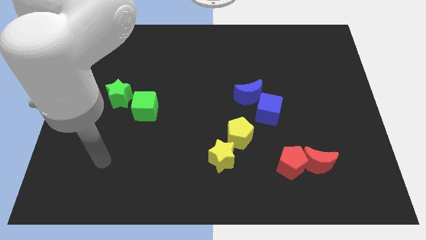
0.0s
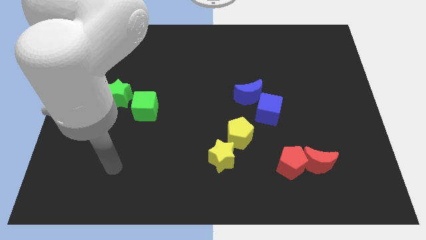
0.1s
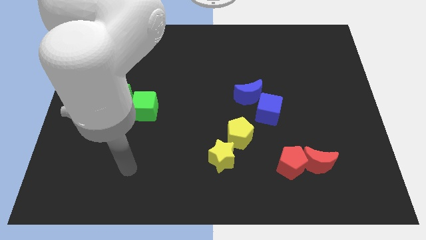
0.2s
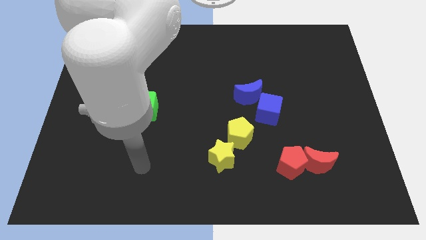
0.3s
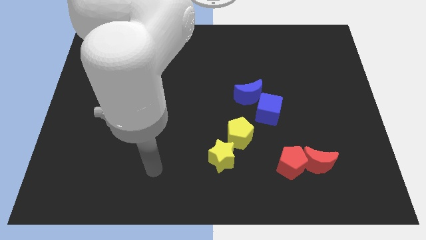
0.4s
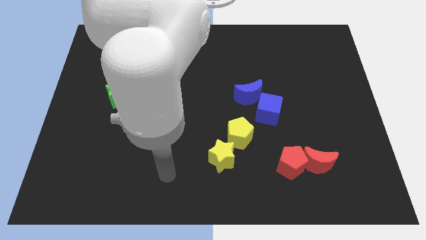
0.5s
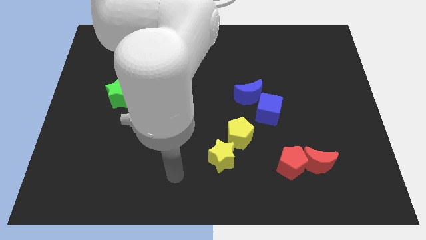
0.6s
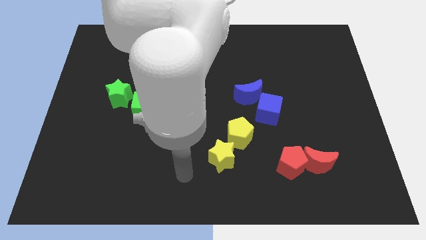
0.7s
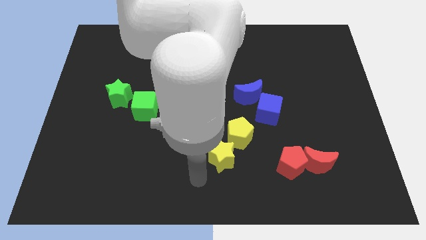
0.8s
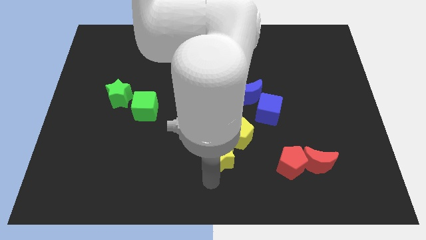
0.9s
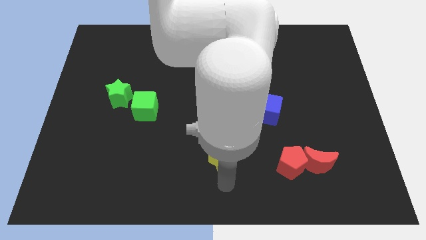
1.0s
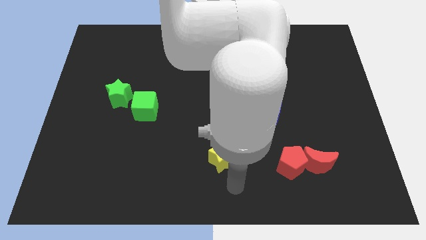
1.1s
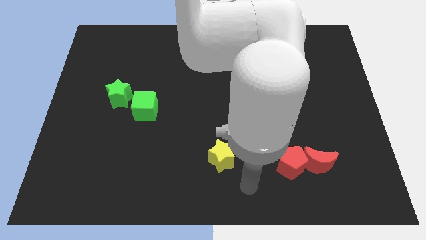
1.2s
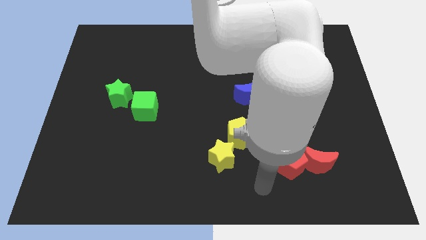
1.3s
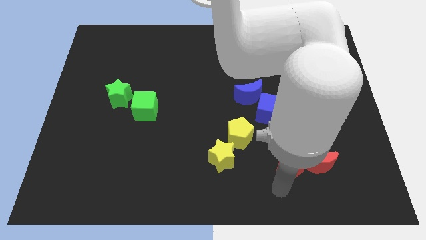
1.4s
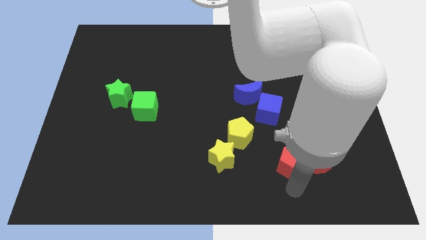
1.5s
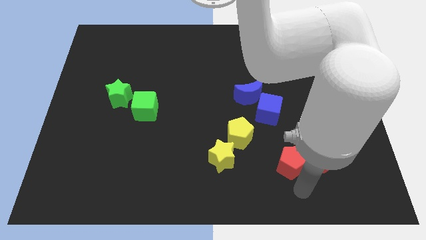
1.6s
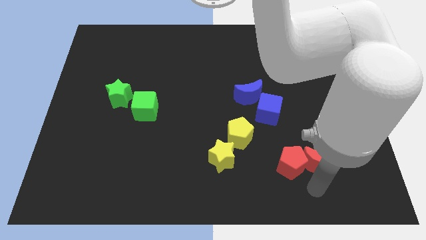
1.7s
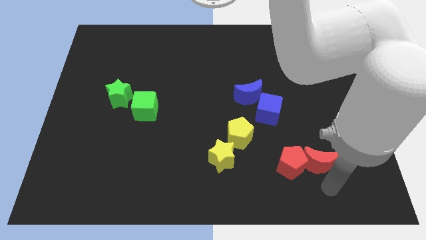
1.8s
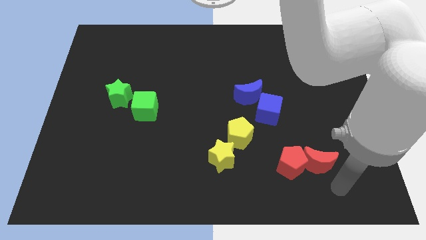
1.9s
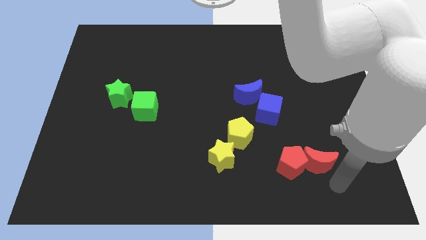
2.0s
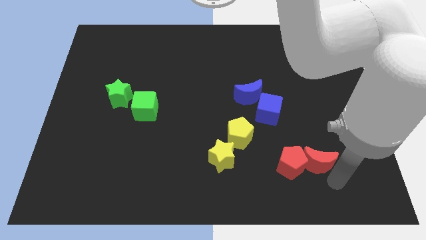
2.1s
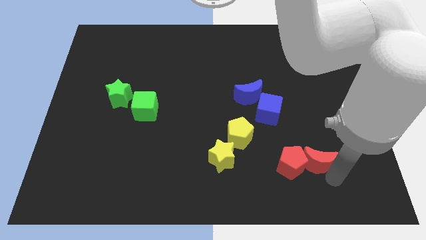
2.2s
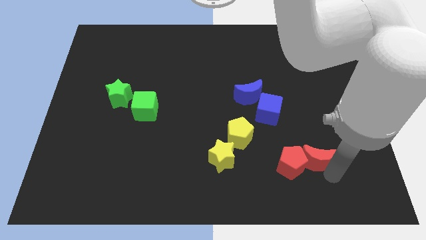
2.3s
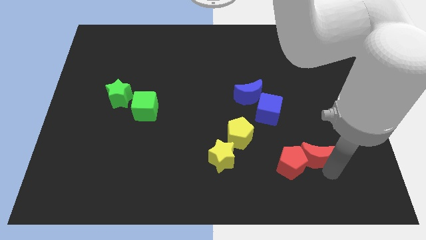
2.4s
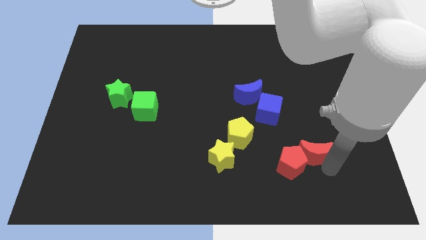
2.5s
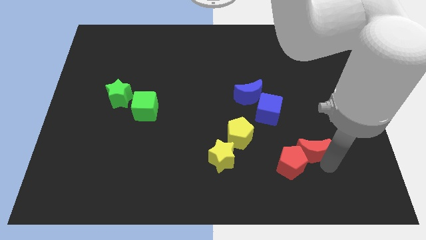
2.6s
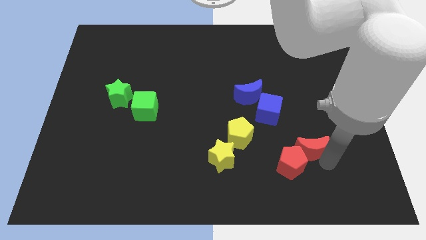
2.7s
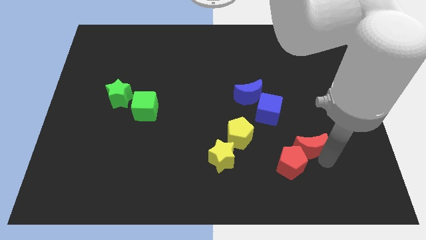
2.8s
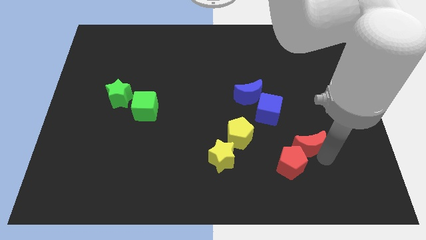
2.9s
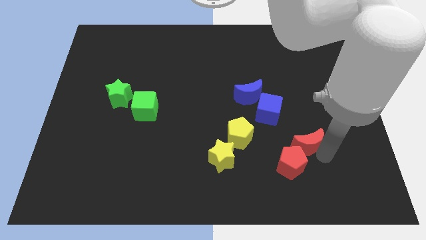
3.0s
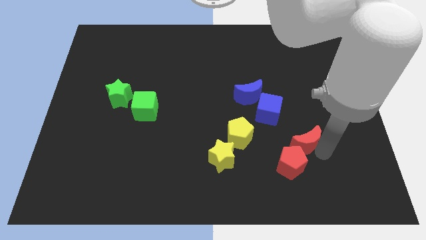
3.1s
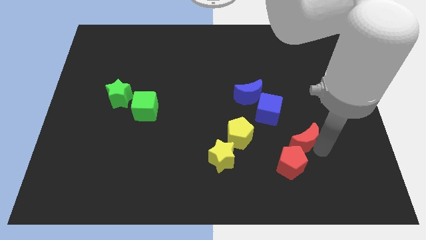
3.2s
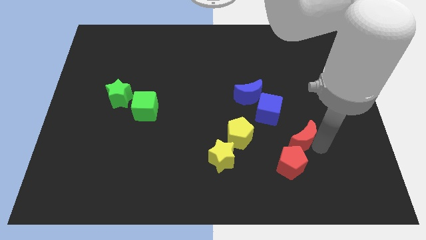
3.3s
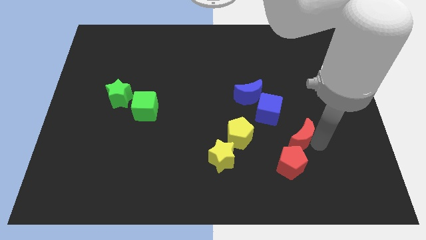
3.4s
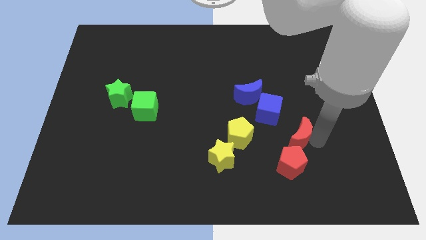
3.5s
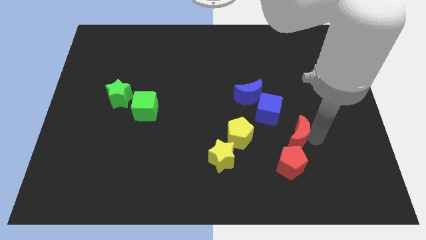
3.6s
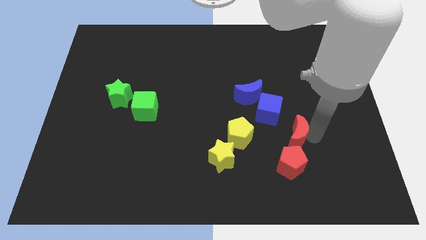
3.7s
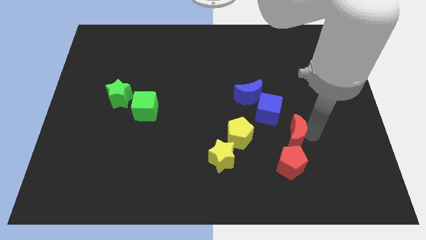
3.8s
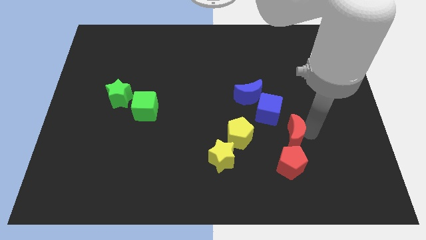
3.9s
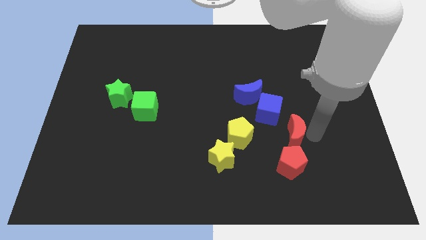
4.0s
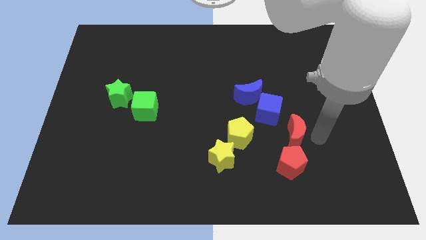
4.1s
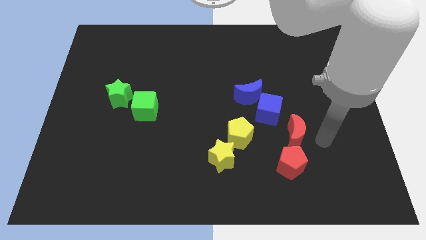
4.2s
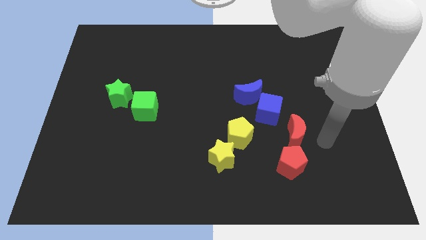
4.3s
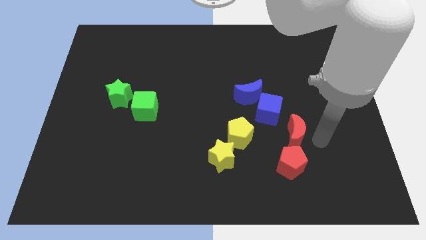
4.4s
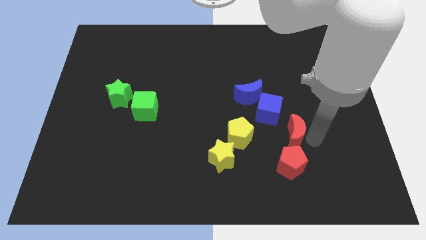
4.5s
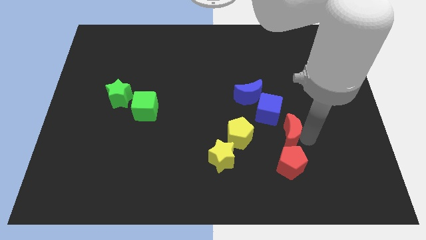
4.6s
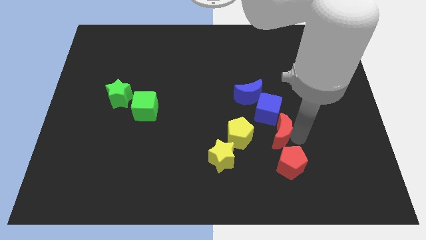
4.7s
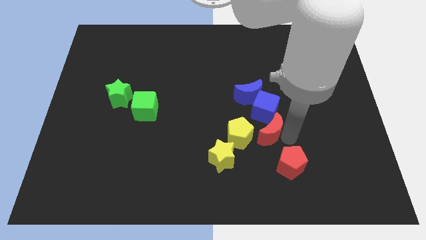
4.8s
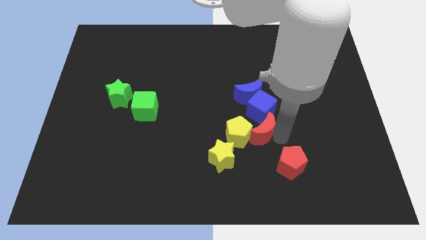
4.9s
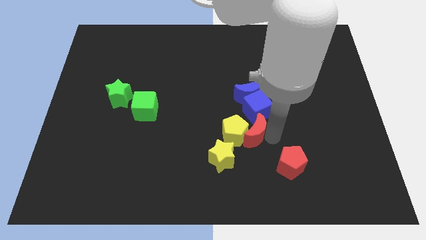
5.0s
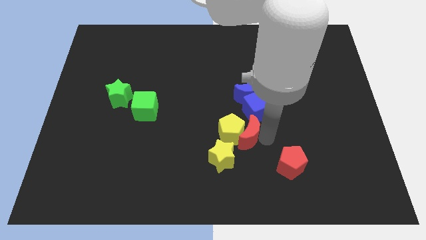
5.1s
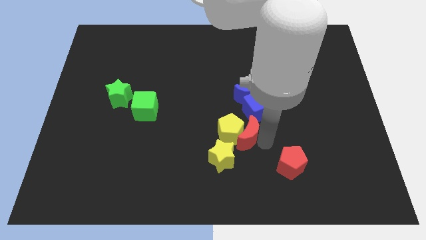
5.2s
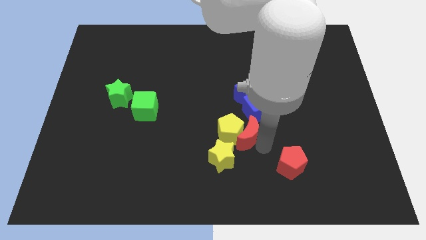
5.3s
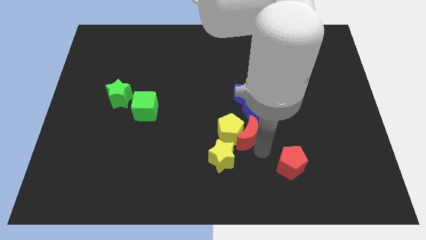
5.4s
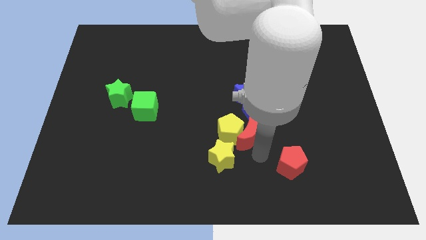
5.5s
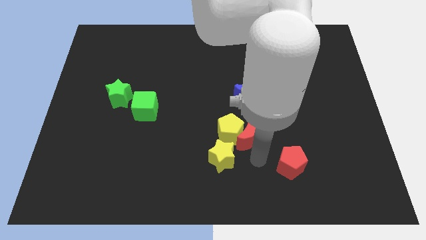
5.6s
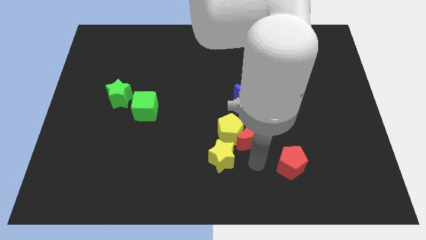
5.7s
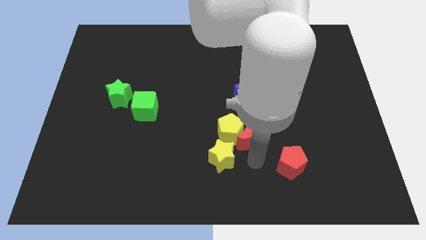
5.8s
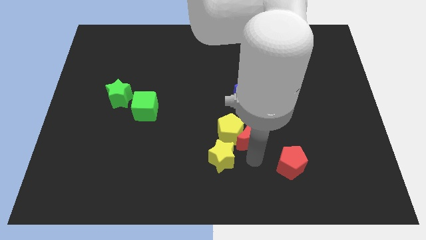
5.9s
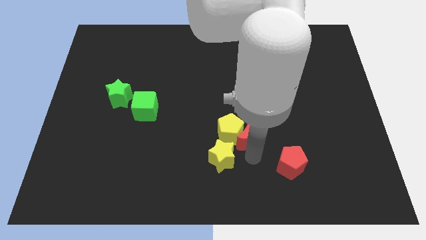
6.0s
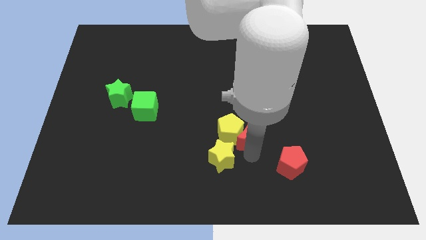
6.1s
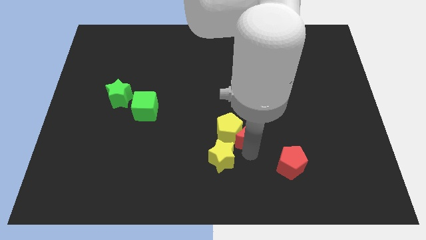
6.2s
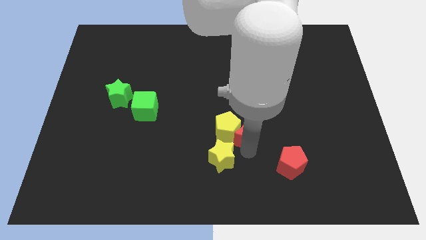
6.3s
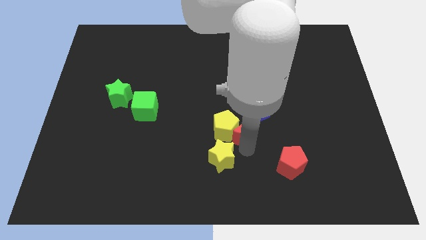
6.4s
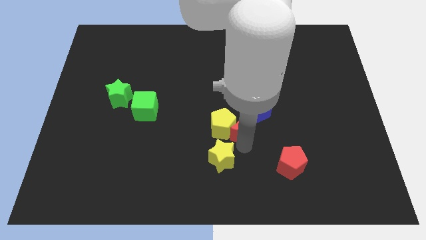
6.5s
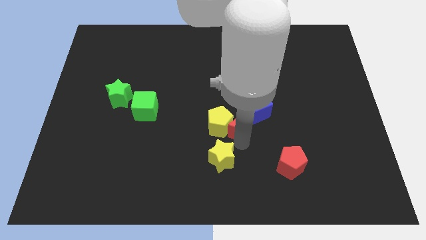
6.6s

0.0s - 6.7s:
slide the red moon just left of the blue cube
